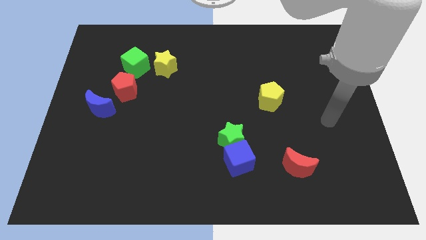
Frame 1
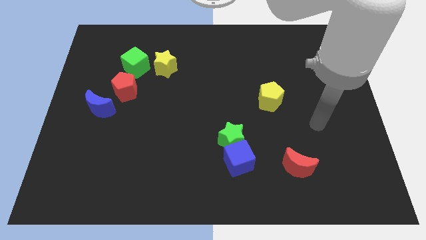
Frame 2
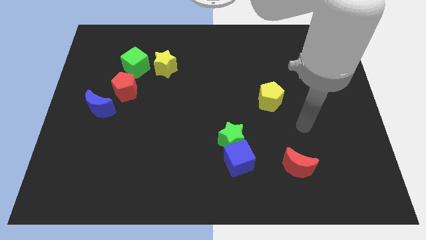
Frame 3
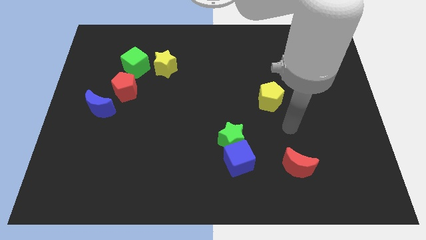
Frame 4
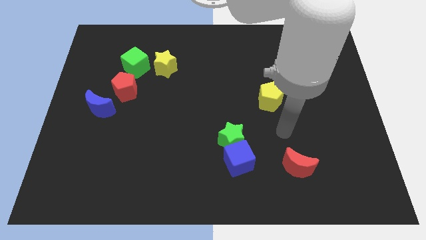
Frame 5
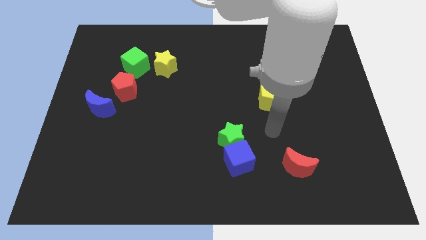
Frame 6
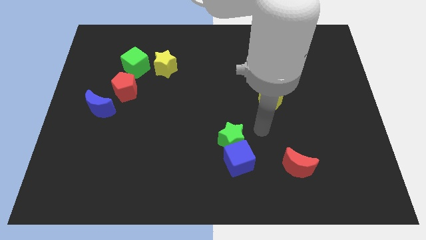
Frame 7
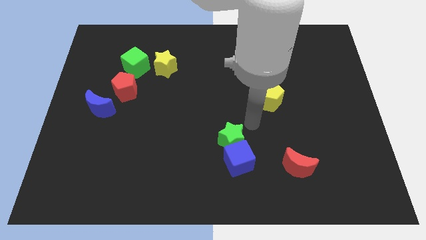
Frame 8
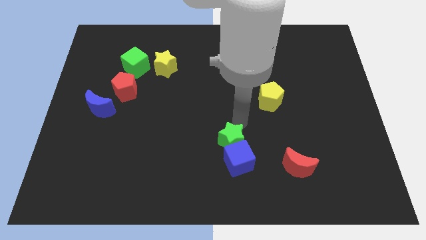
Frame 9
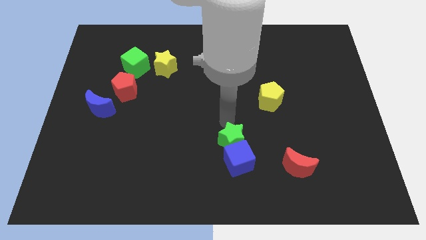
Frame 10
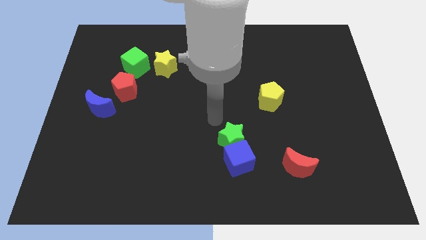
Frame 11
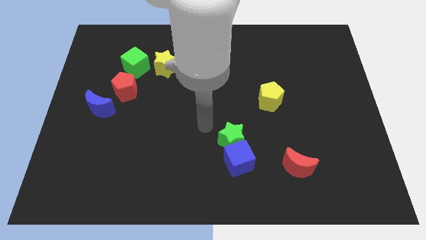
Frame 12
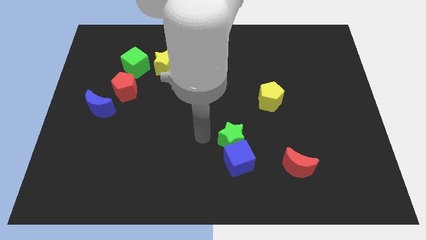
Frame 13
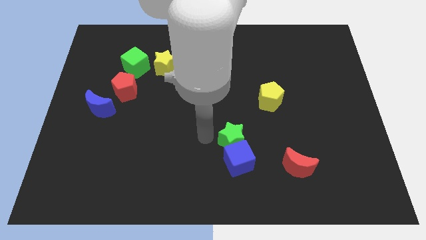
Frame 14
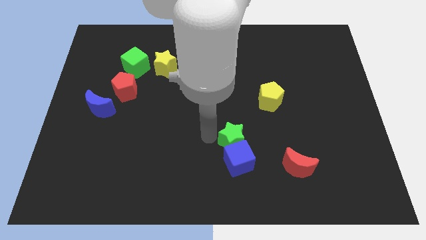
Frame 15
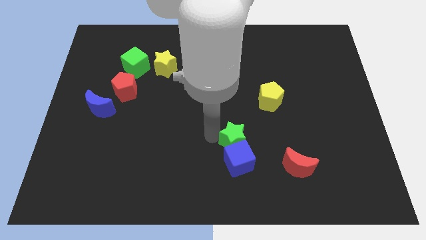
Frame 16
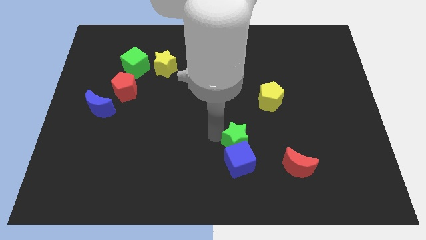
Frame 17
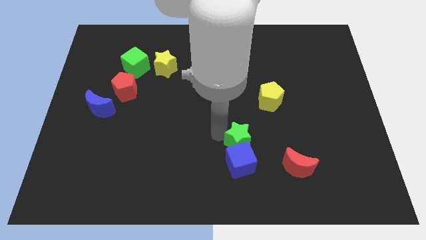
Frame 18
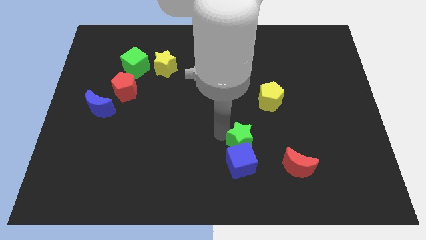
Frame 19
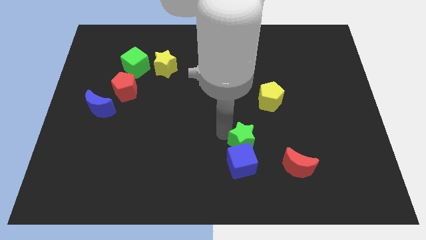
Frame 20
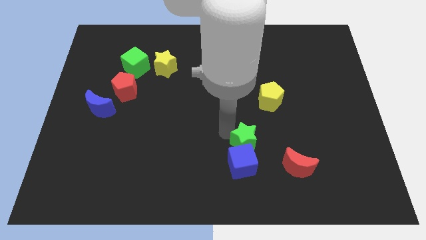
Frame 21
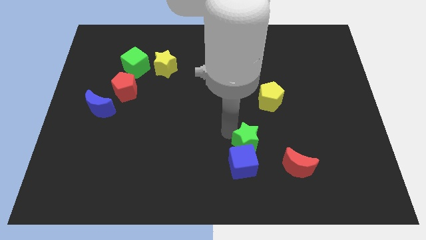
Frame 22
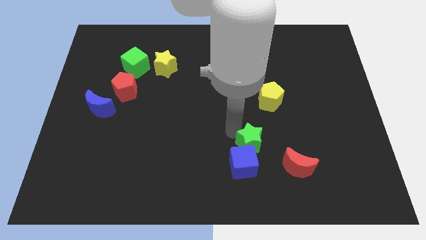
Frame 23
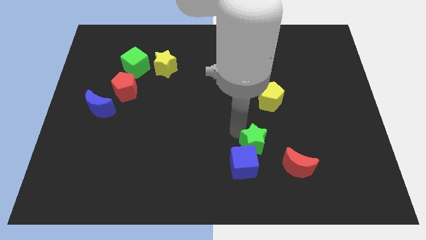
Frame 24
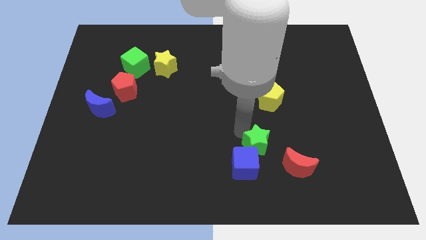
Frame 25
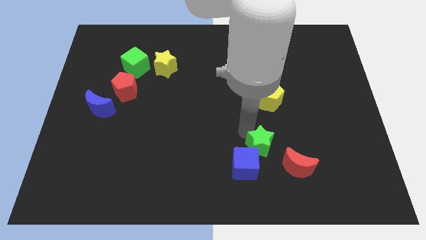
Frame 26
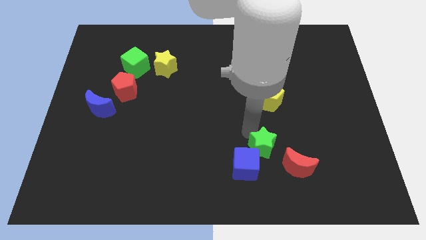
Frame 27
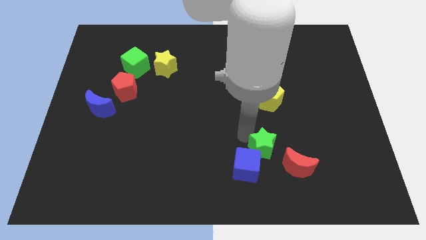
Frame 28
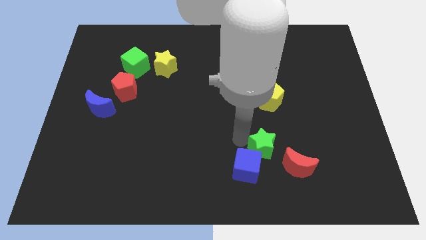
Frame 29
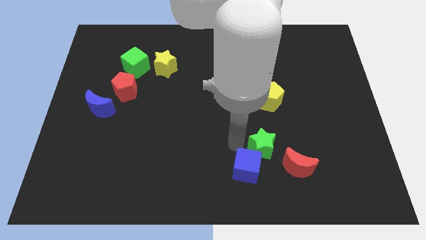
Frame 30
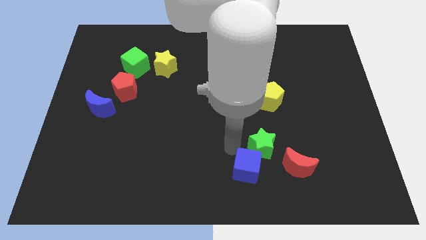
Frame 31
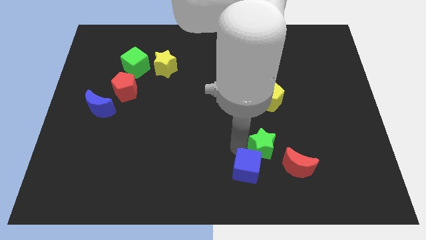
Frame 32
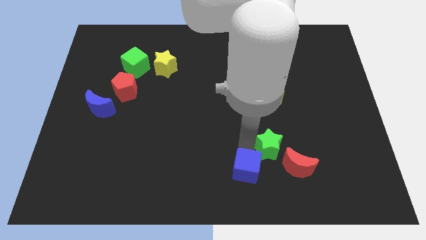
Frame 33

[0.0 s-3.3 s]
push the green star a little right

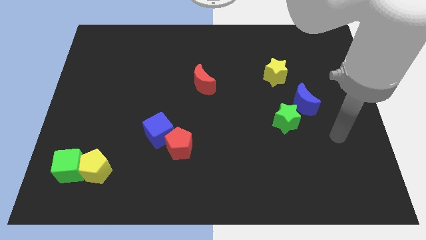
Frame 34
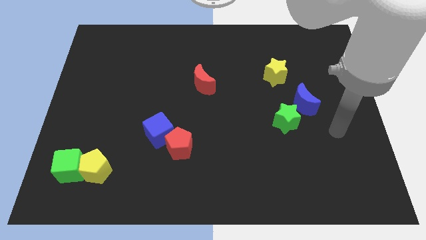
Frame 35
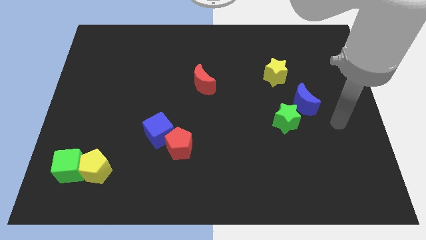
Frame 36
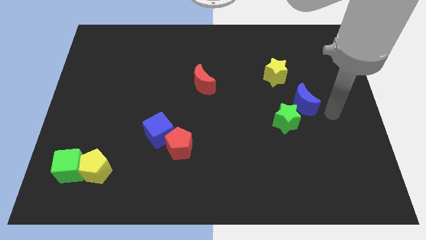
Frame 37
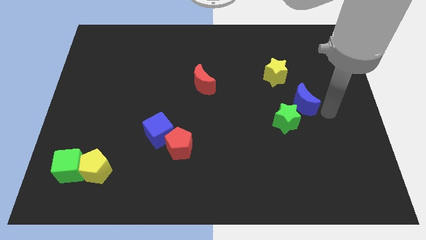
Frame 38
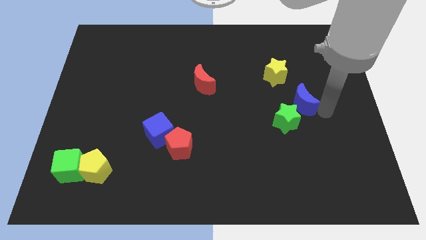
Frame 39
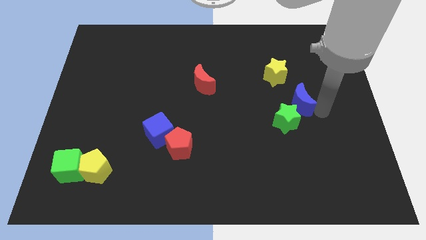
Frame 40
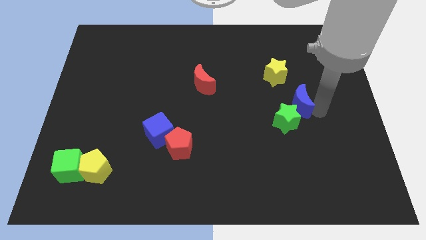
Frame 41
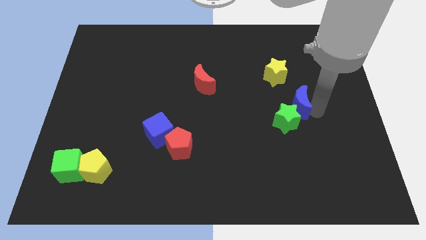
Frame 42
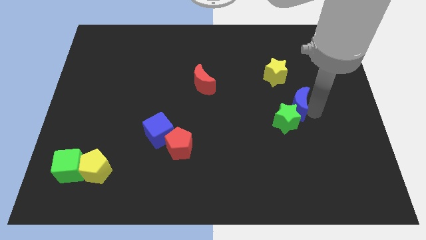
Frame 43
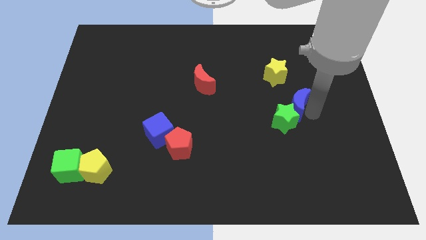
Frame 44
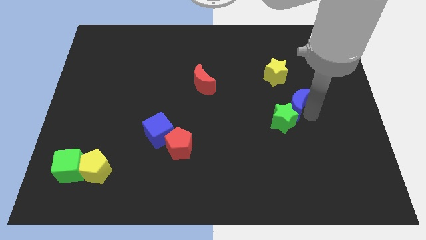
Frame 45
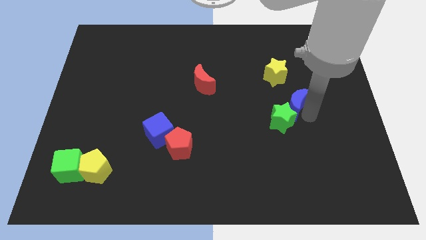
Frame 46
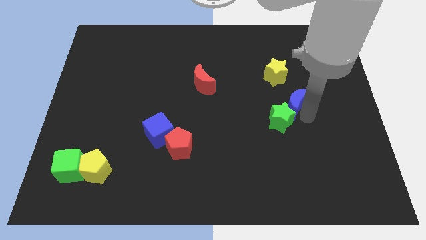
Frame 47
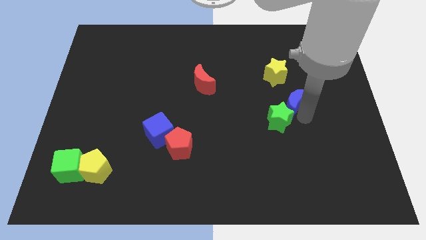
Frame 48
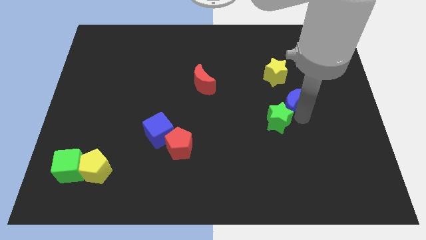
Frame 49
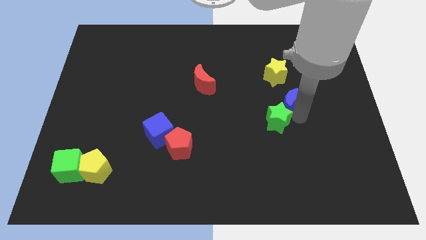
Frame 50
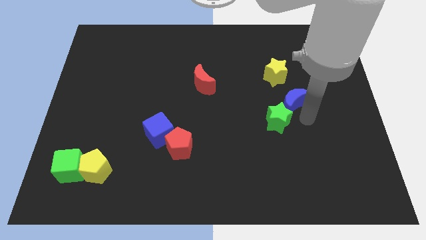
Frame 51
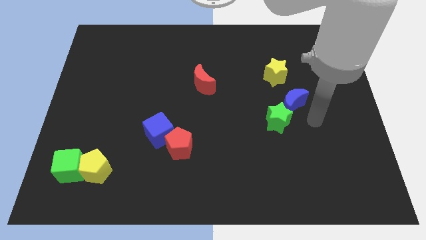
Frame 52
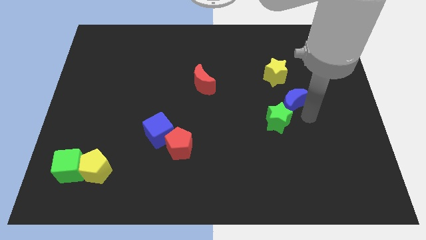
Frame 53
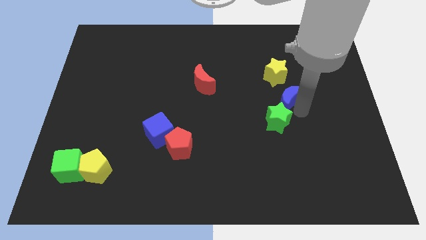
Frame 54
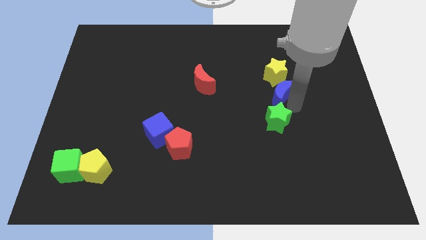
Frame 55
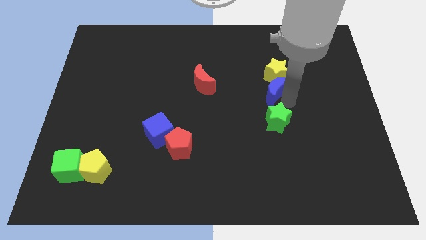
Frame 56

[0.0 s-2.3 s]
slide the blue moon diagonally upwards and left a little

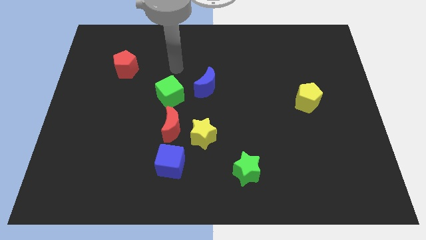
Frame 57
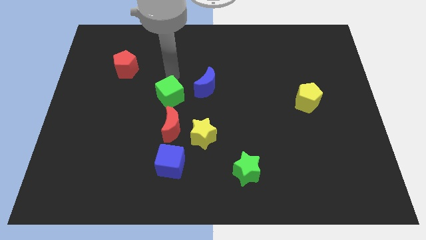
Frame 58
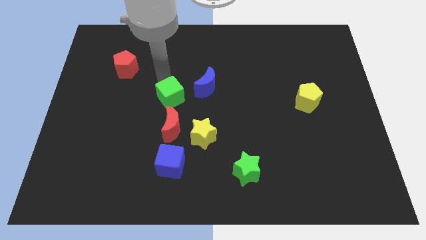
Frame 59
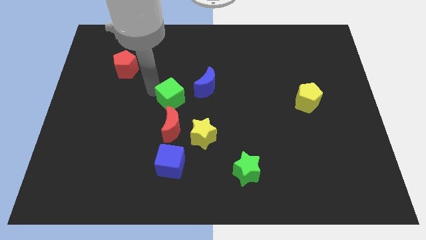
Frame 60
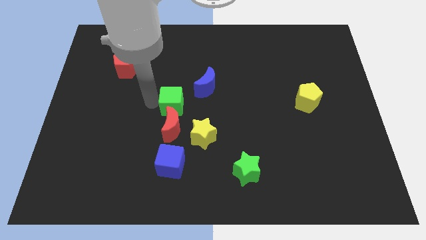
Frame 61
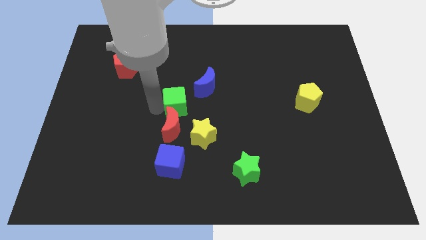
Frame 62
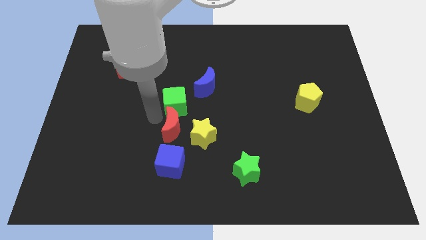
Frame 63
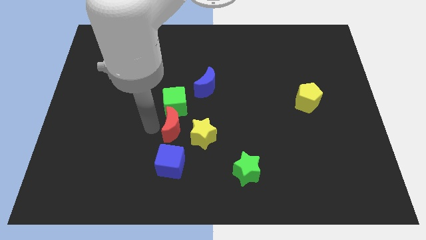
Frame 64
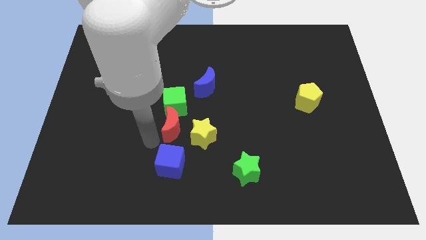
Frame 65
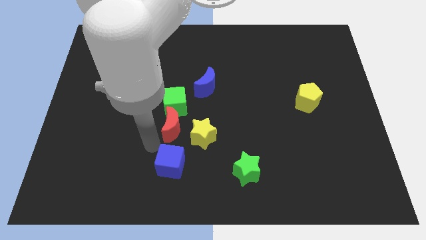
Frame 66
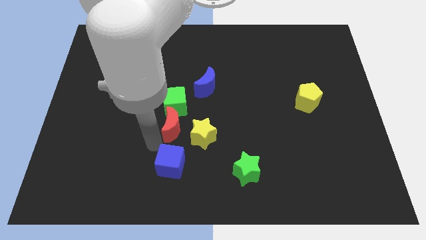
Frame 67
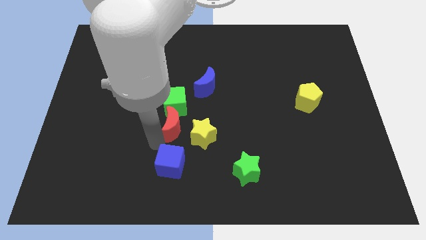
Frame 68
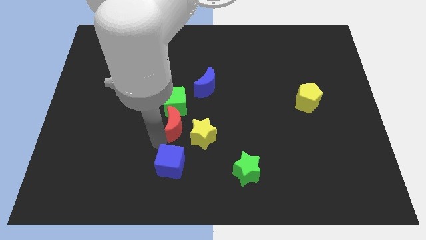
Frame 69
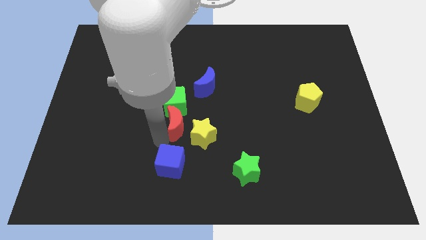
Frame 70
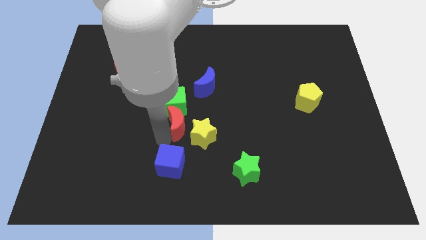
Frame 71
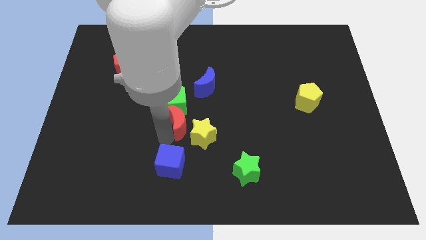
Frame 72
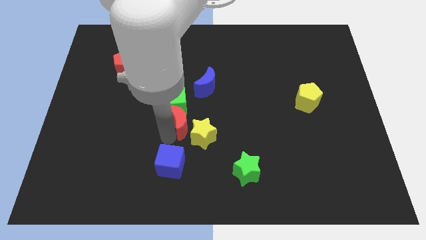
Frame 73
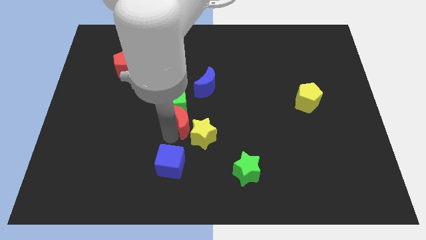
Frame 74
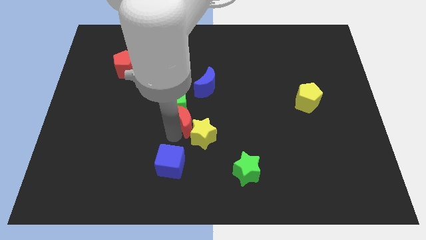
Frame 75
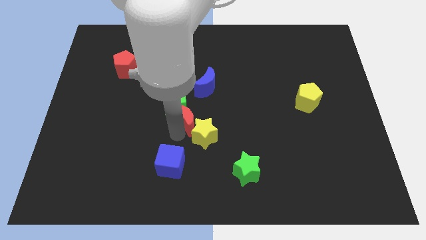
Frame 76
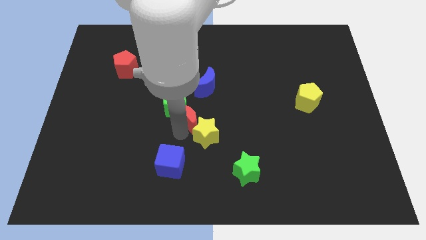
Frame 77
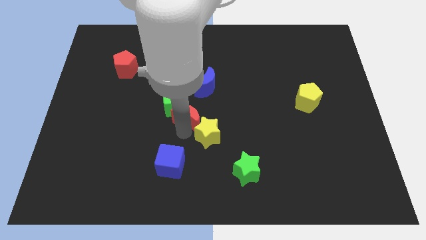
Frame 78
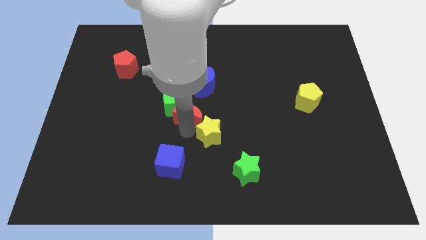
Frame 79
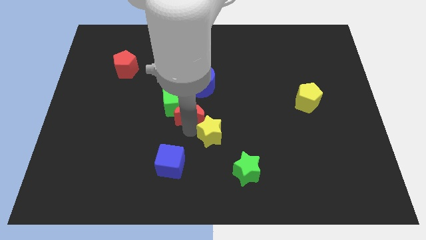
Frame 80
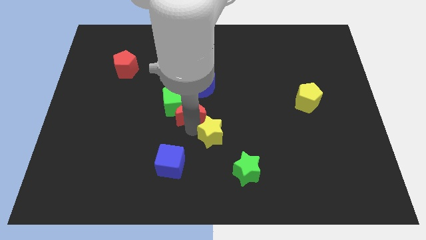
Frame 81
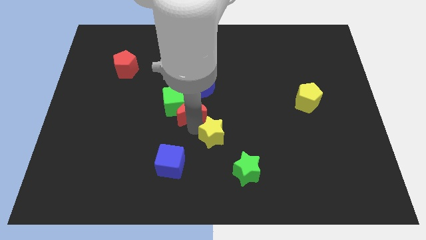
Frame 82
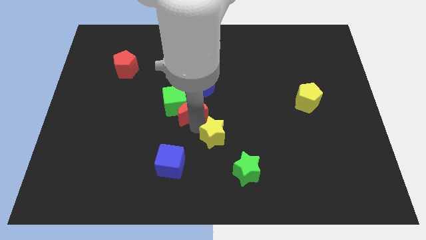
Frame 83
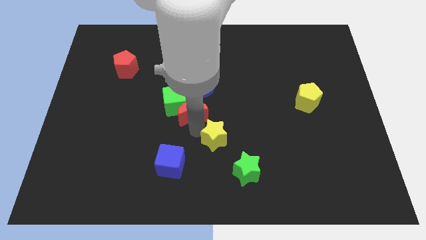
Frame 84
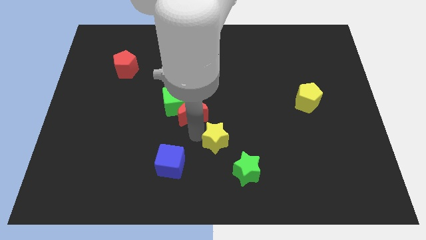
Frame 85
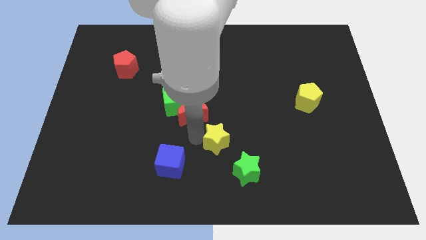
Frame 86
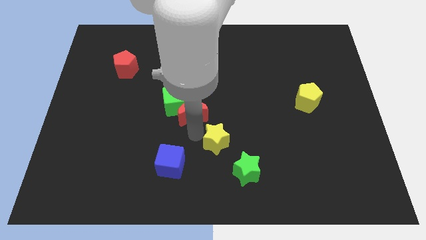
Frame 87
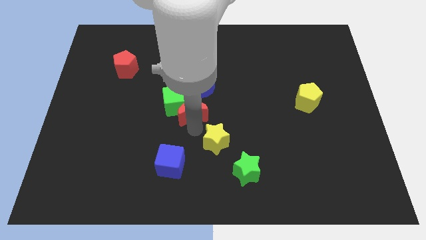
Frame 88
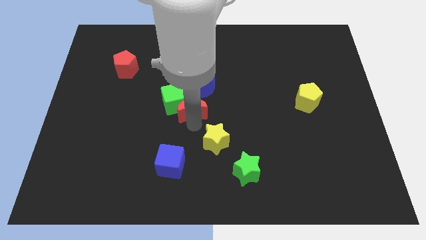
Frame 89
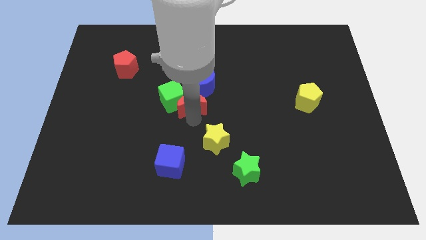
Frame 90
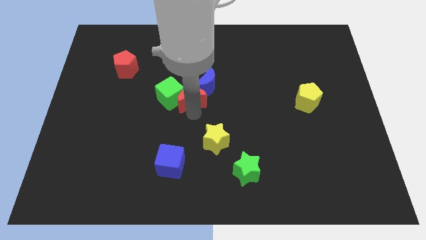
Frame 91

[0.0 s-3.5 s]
push the red moon upwards somewhat
